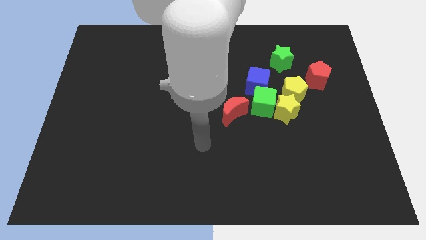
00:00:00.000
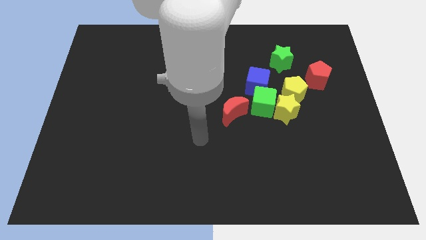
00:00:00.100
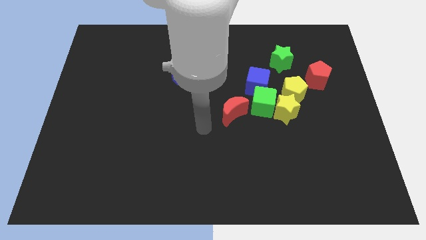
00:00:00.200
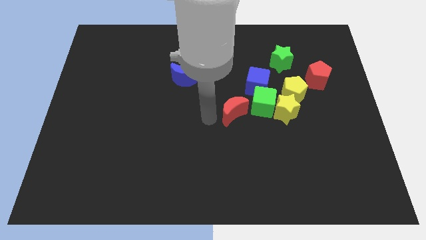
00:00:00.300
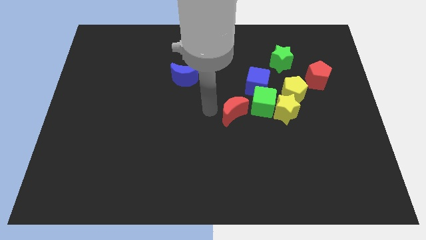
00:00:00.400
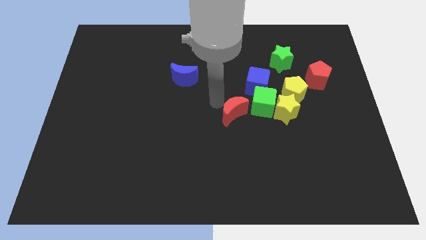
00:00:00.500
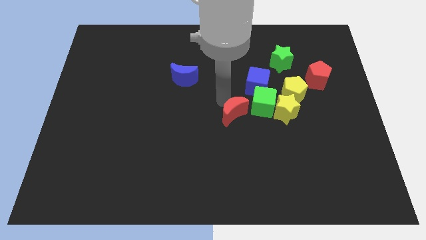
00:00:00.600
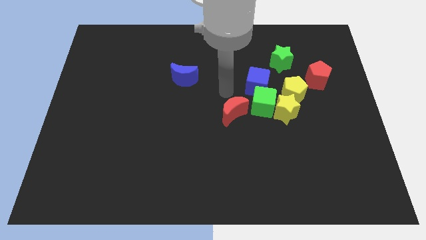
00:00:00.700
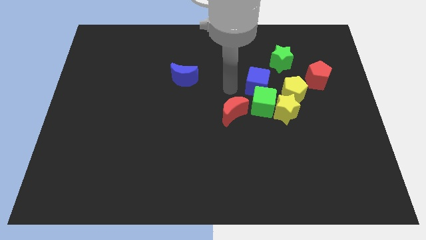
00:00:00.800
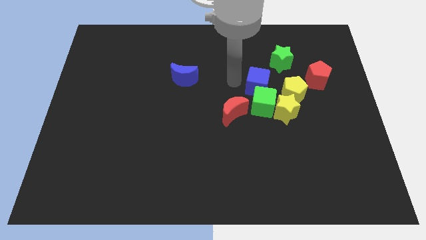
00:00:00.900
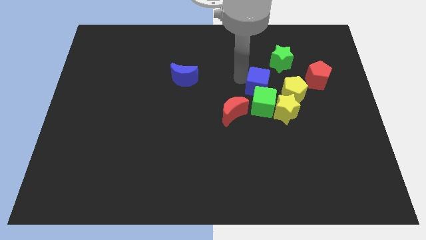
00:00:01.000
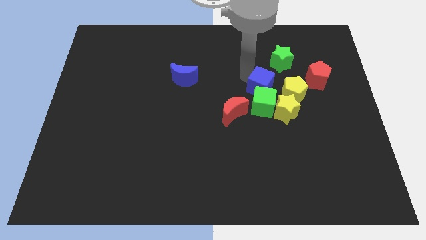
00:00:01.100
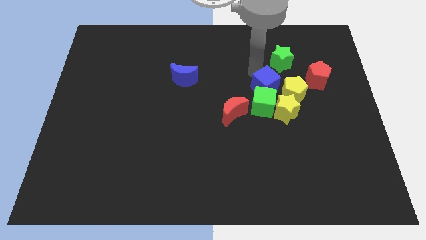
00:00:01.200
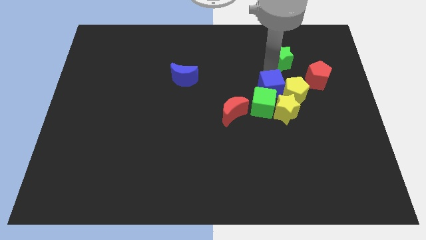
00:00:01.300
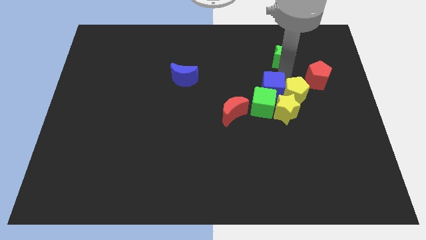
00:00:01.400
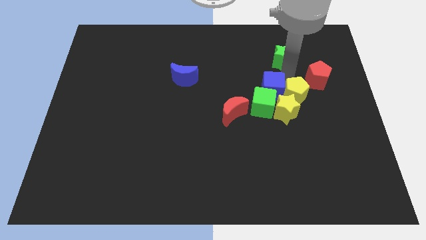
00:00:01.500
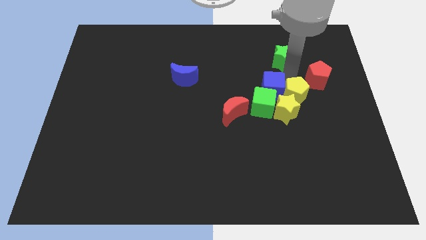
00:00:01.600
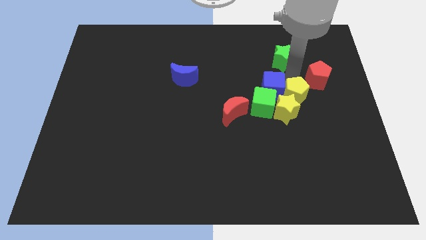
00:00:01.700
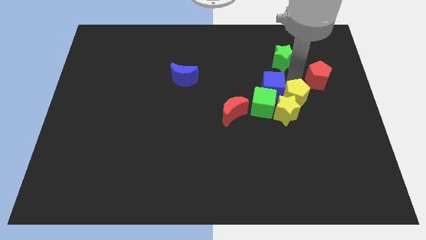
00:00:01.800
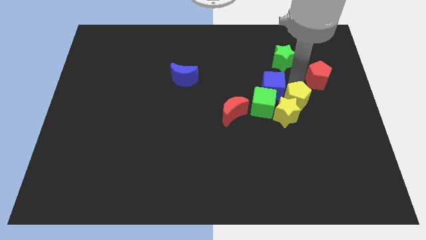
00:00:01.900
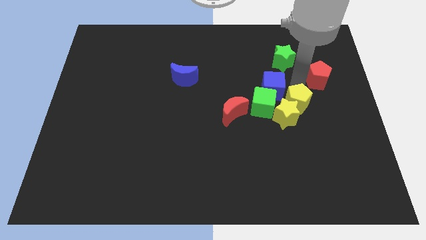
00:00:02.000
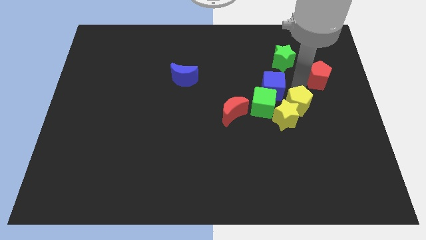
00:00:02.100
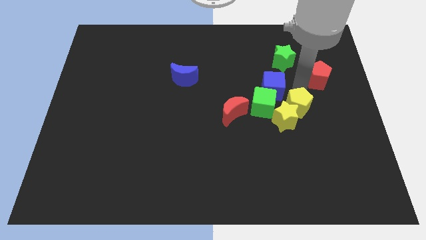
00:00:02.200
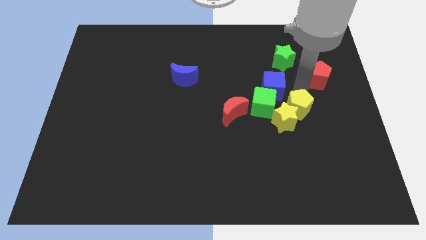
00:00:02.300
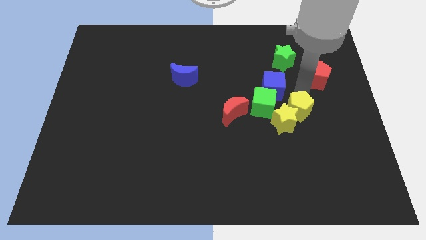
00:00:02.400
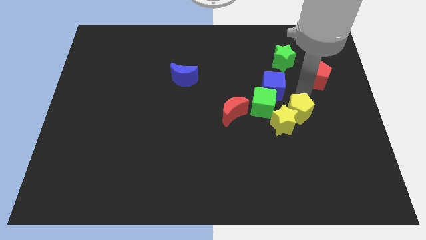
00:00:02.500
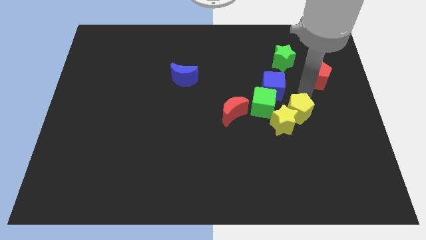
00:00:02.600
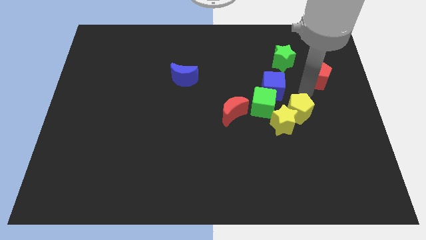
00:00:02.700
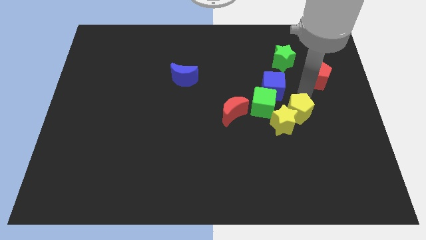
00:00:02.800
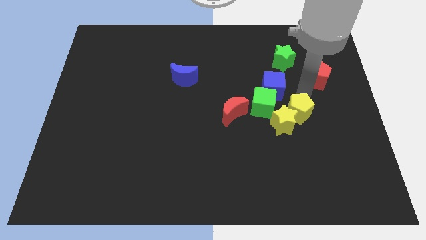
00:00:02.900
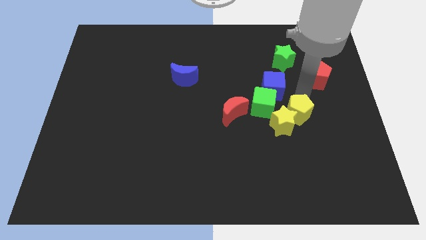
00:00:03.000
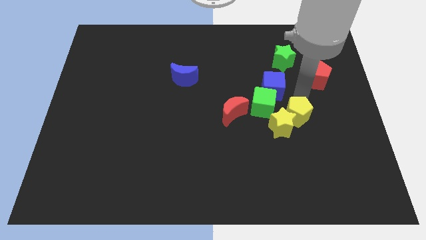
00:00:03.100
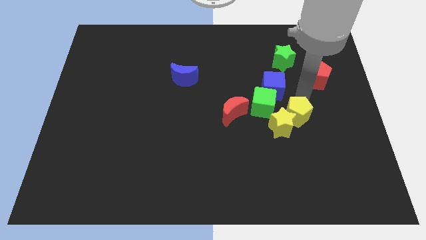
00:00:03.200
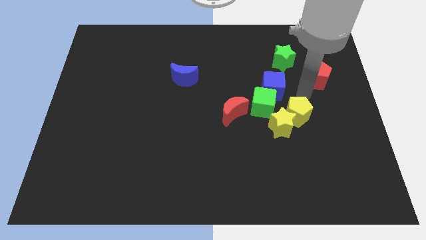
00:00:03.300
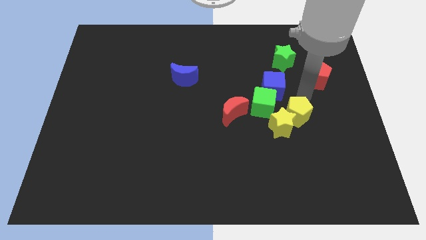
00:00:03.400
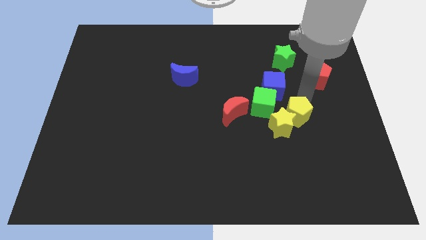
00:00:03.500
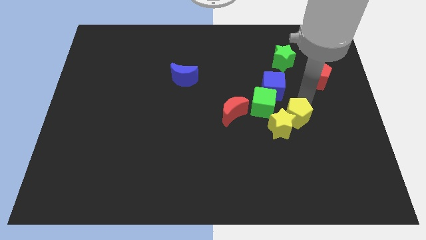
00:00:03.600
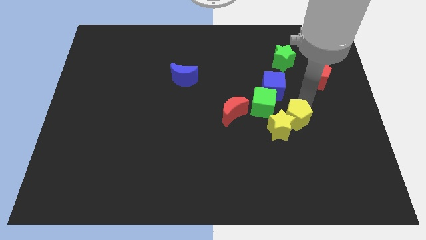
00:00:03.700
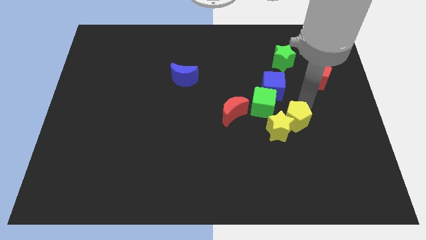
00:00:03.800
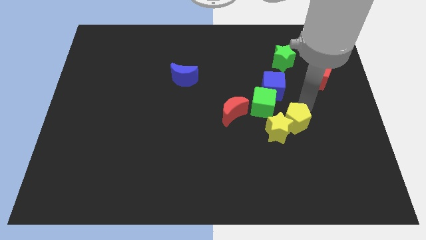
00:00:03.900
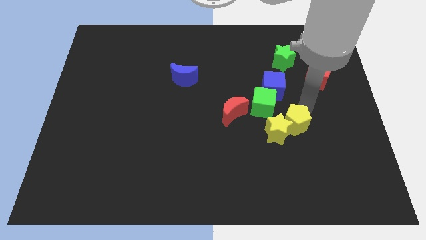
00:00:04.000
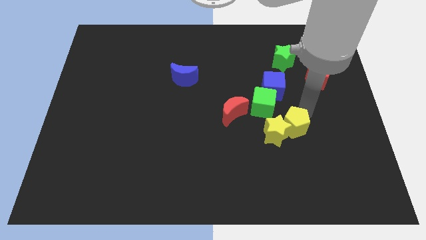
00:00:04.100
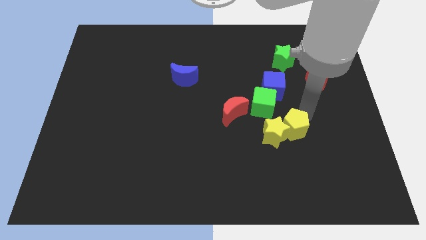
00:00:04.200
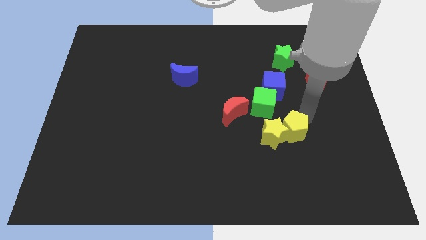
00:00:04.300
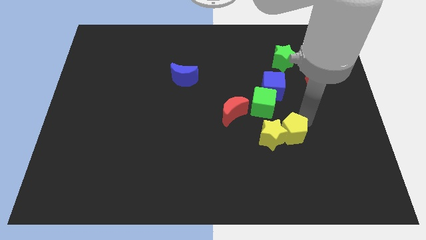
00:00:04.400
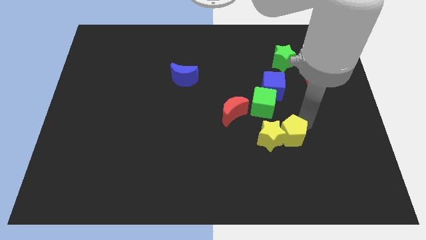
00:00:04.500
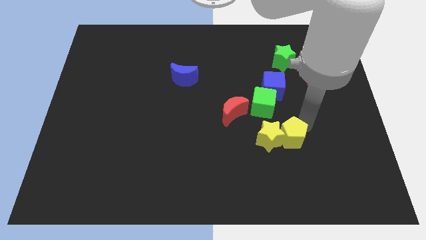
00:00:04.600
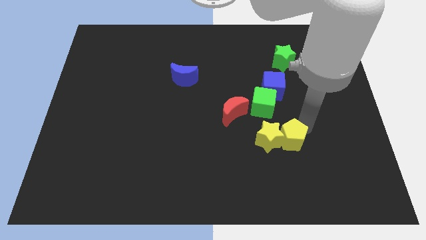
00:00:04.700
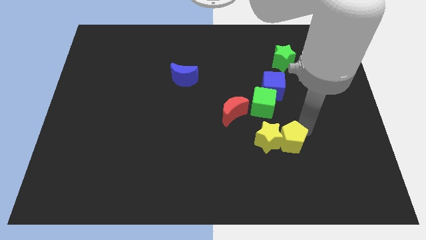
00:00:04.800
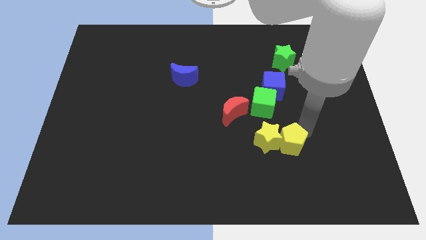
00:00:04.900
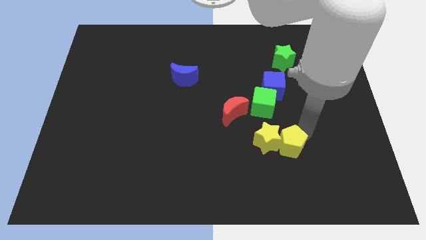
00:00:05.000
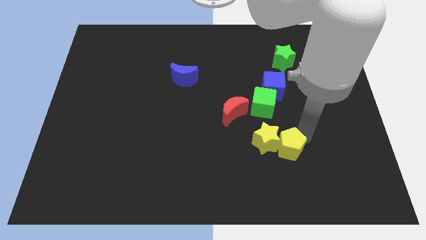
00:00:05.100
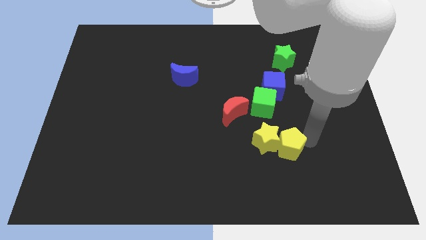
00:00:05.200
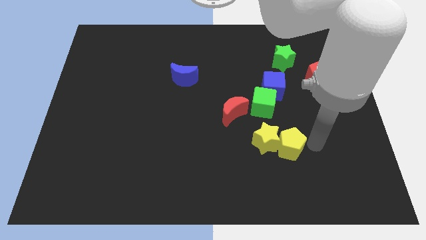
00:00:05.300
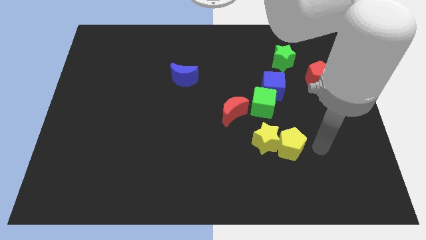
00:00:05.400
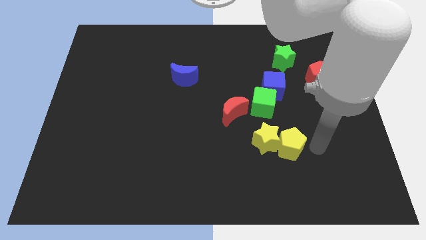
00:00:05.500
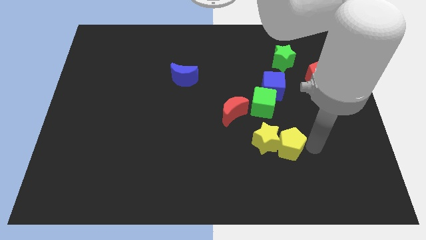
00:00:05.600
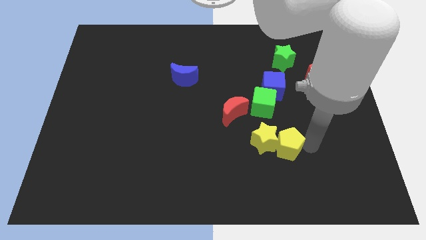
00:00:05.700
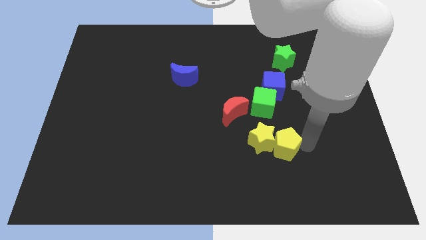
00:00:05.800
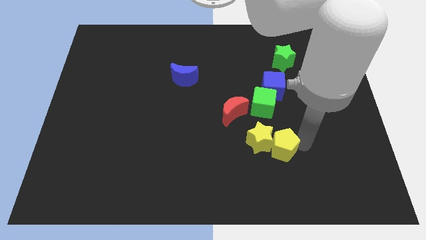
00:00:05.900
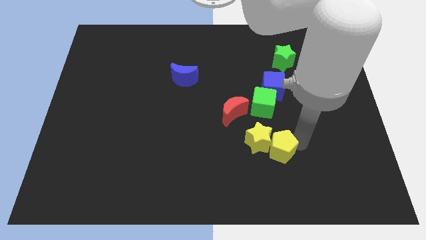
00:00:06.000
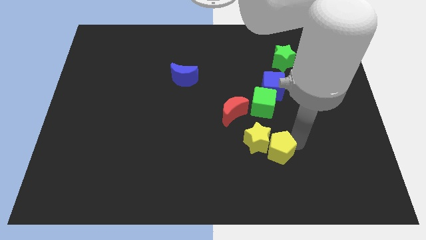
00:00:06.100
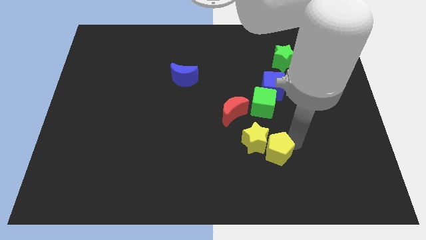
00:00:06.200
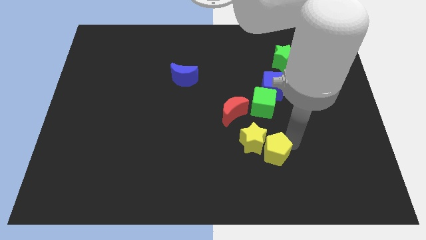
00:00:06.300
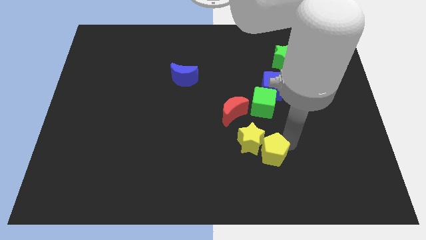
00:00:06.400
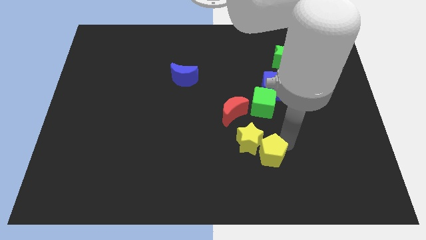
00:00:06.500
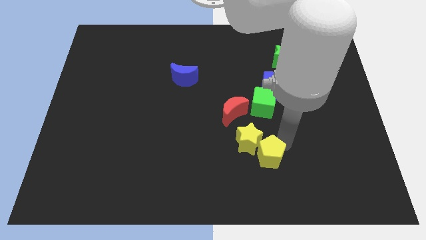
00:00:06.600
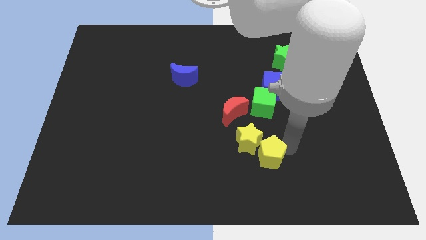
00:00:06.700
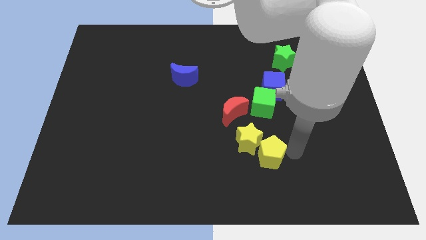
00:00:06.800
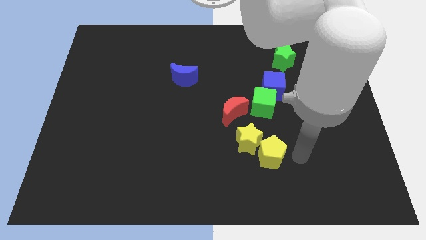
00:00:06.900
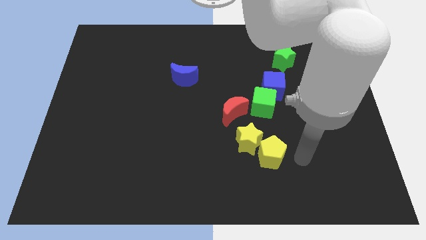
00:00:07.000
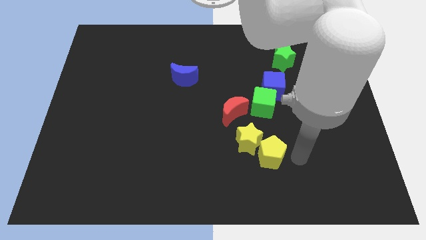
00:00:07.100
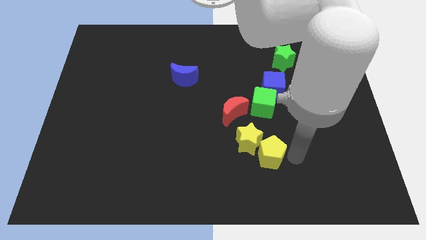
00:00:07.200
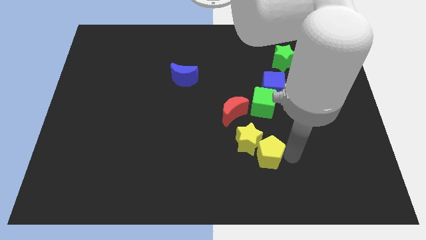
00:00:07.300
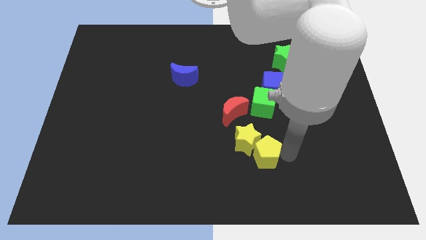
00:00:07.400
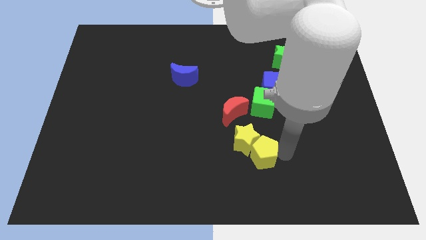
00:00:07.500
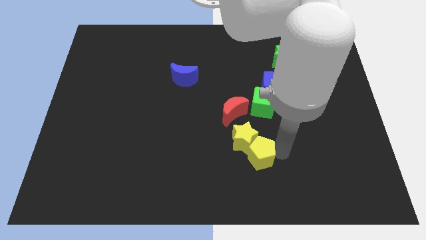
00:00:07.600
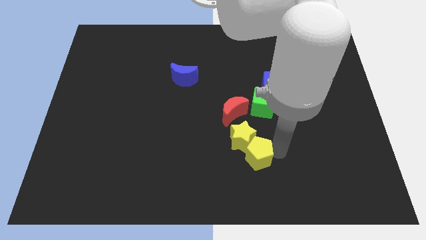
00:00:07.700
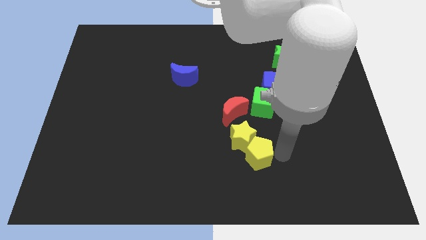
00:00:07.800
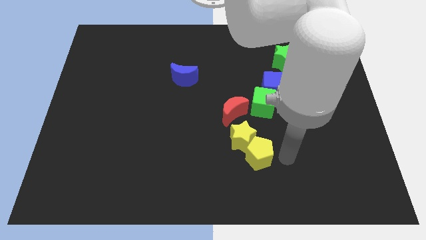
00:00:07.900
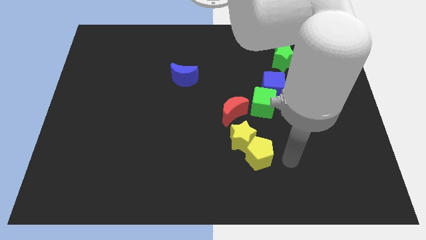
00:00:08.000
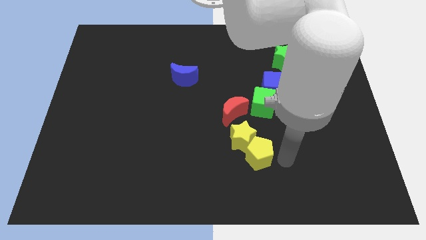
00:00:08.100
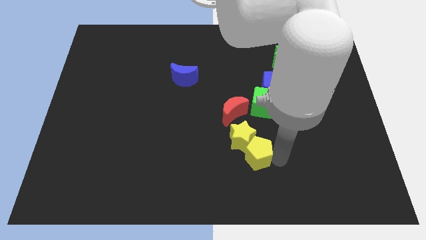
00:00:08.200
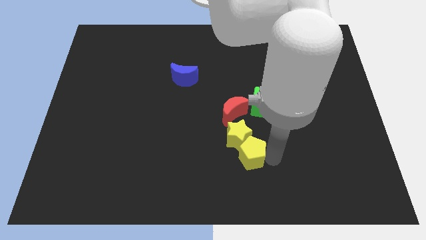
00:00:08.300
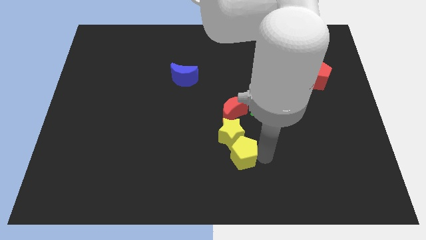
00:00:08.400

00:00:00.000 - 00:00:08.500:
push the yellow pentagon down and then left
